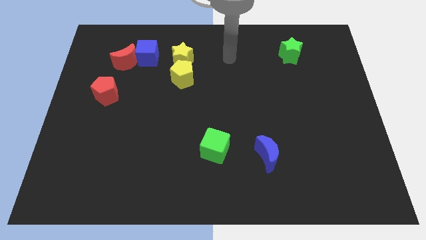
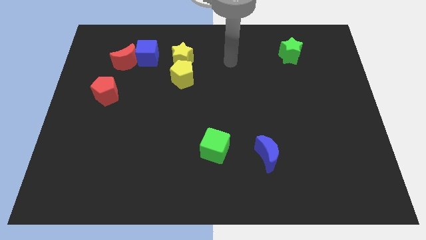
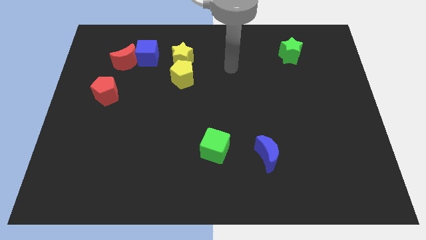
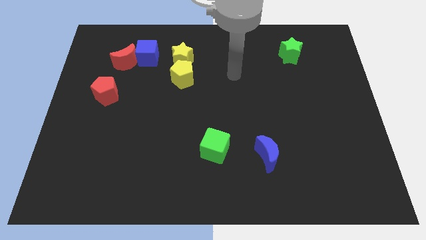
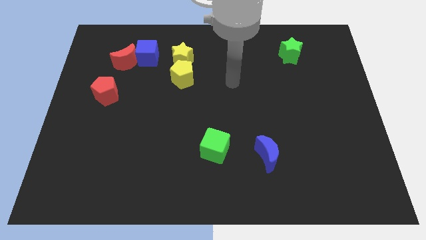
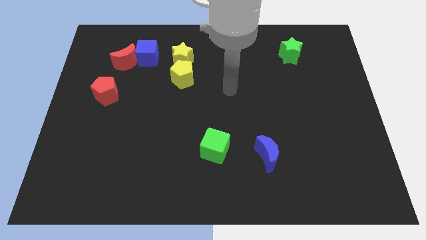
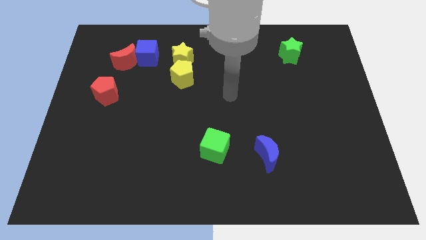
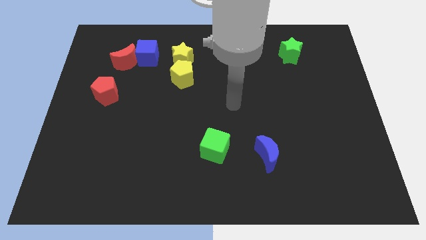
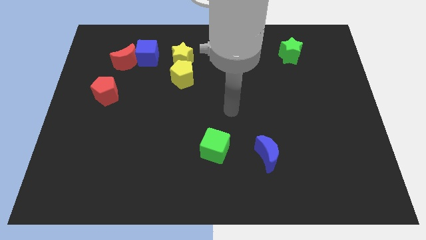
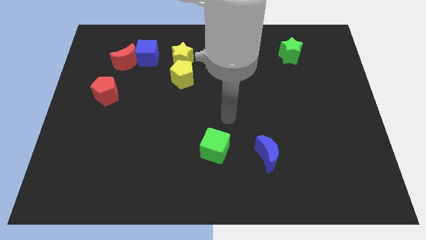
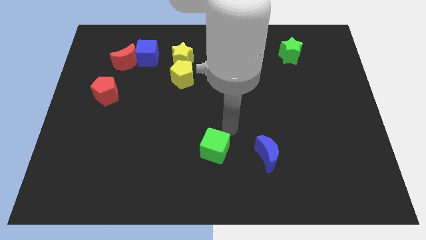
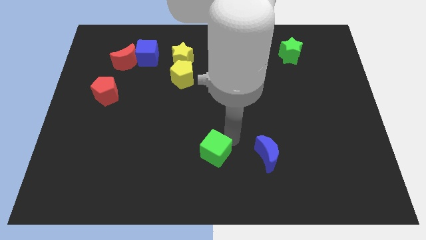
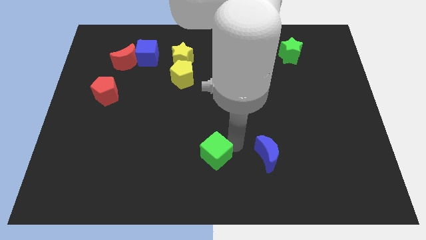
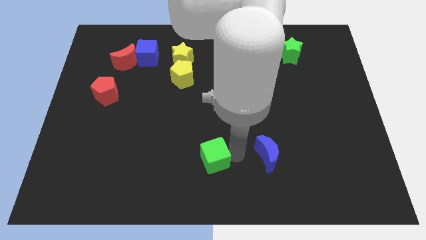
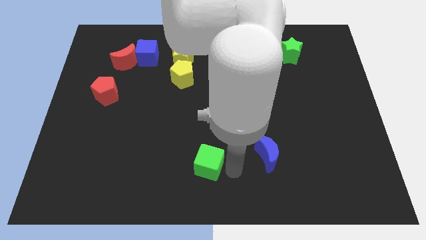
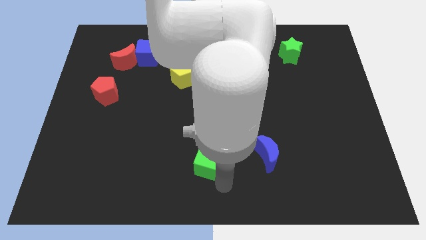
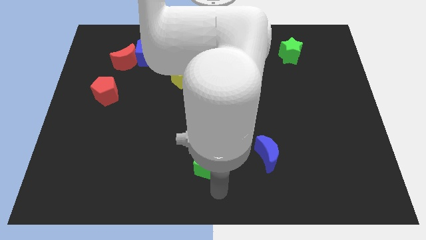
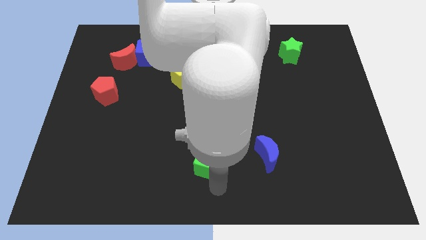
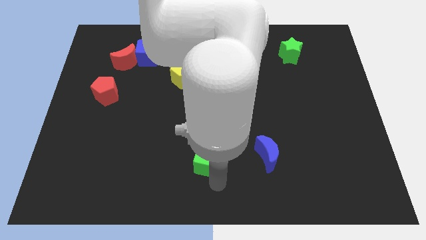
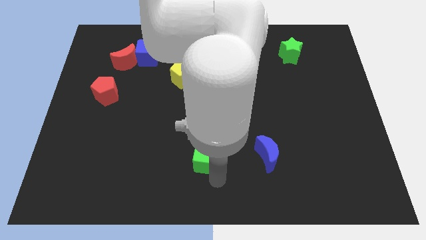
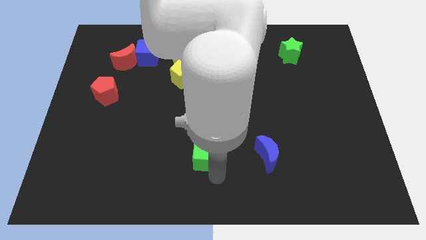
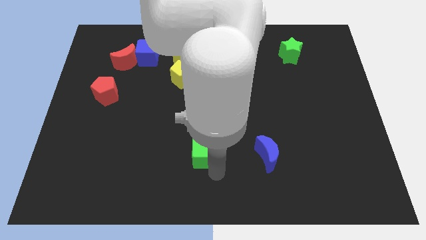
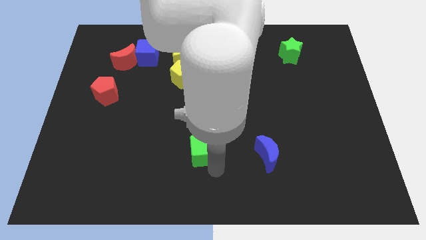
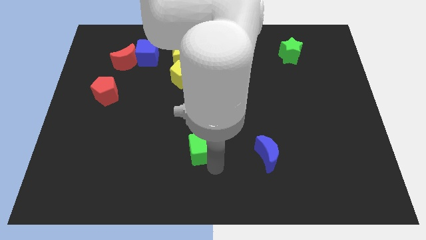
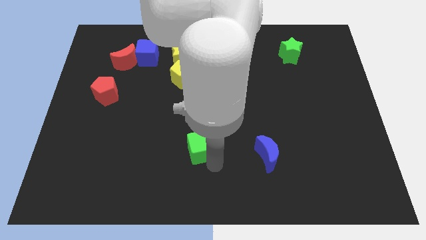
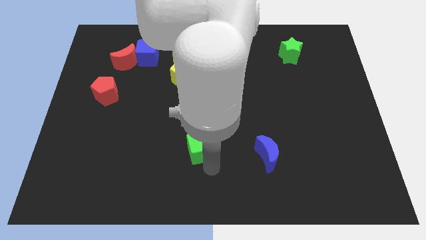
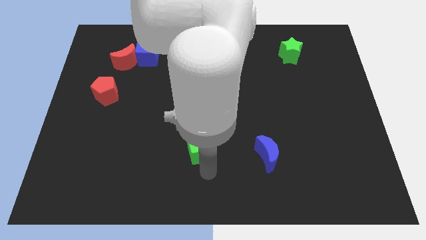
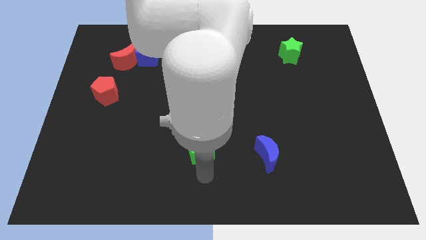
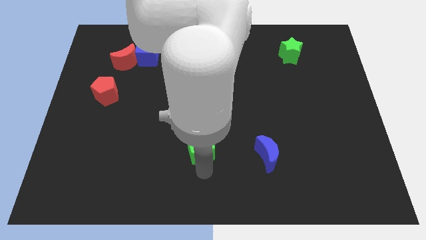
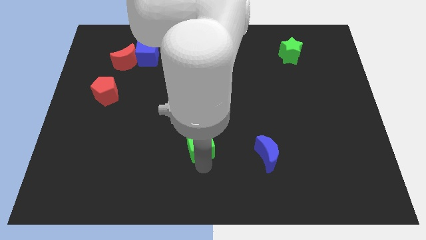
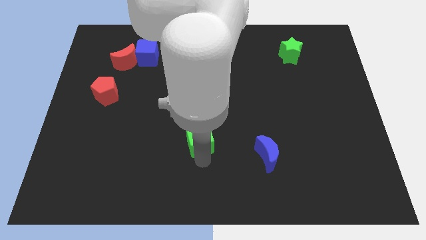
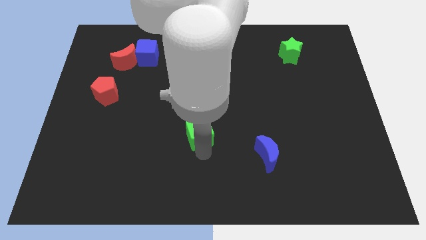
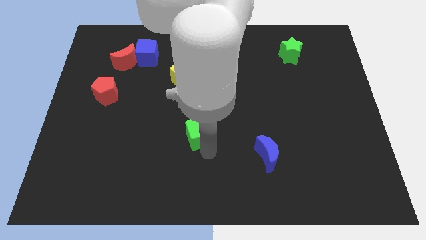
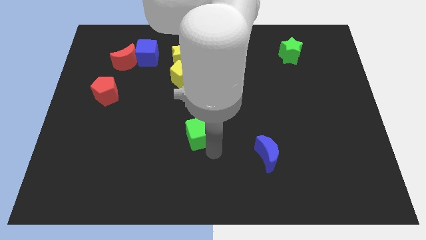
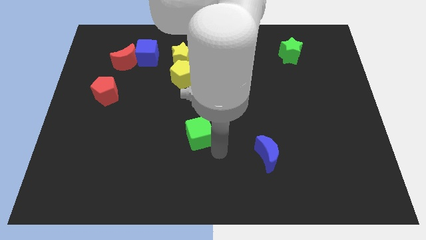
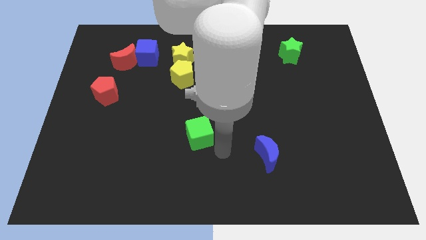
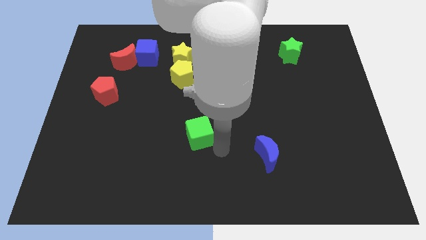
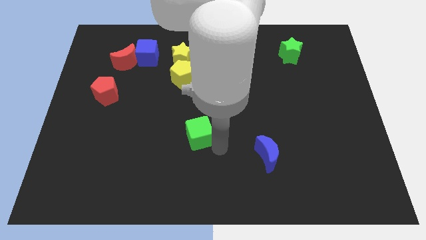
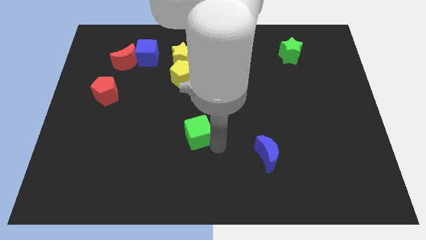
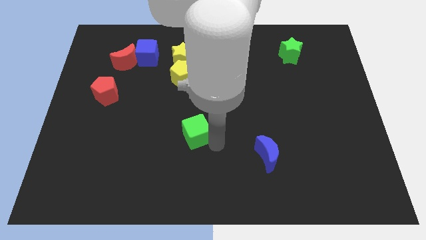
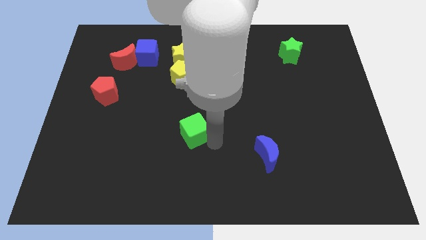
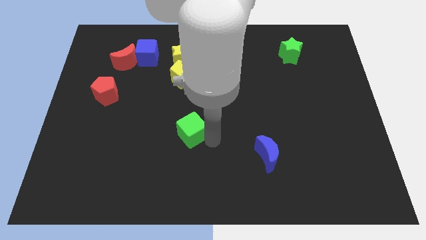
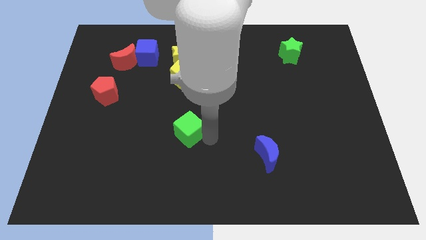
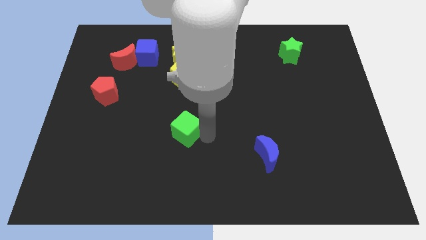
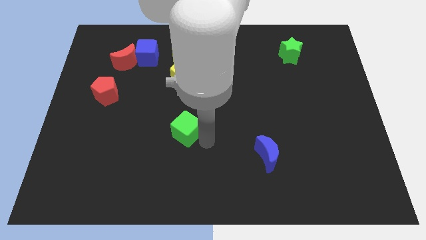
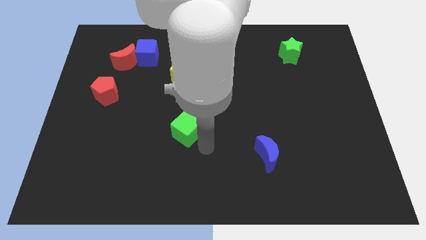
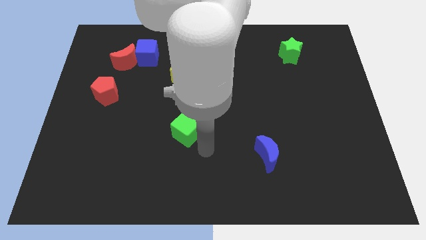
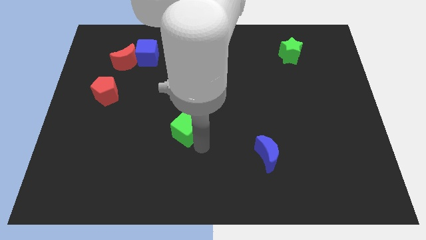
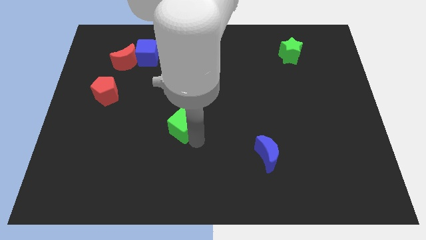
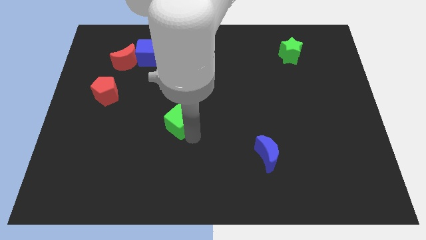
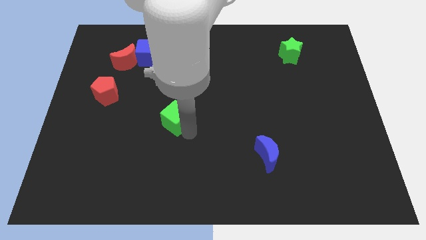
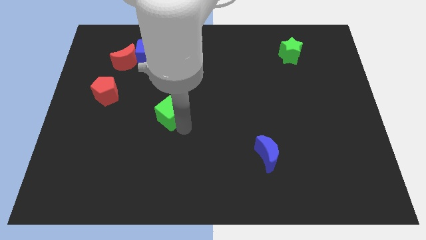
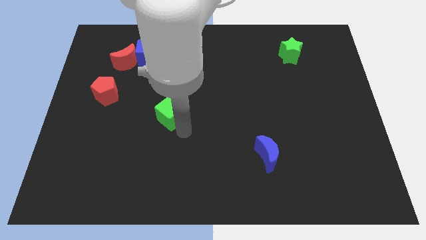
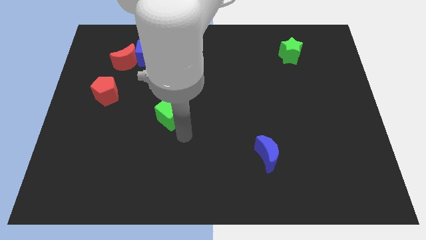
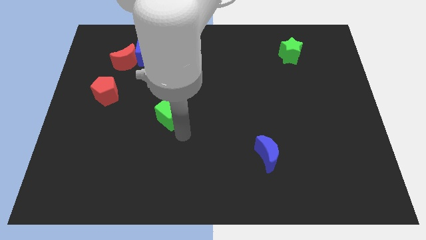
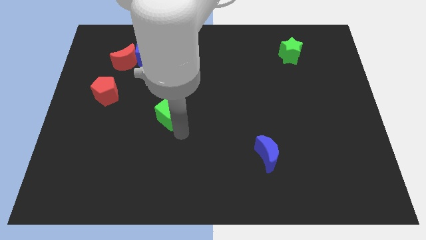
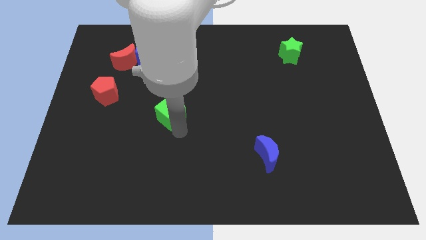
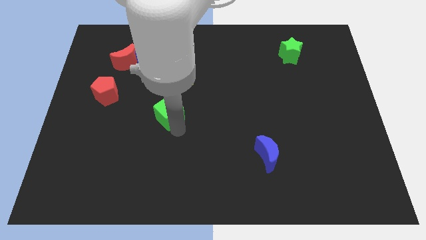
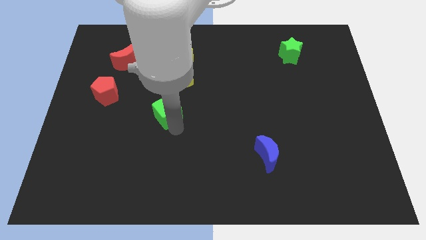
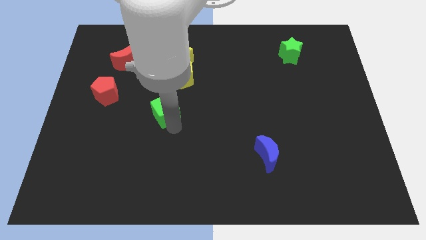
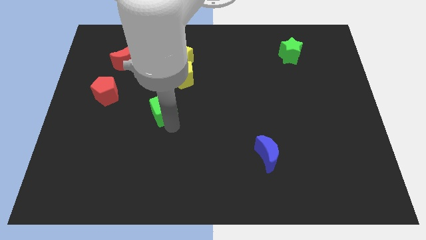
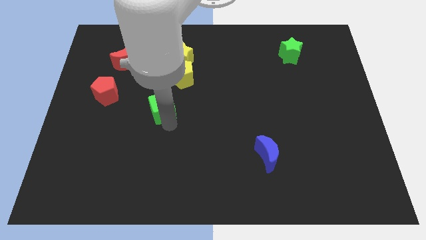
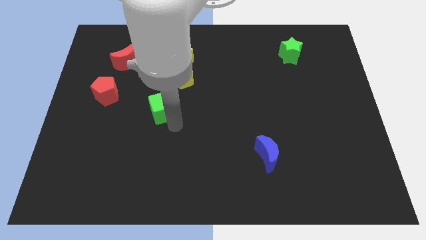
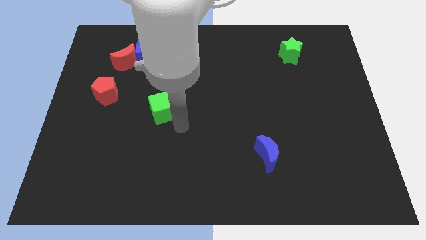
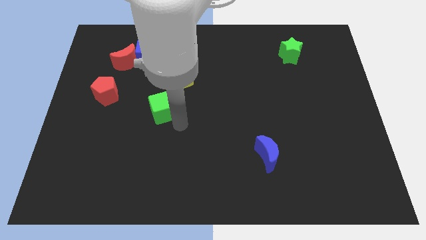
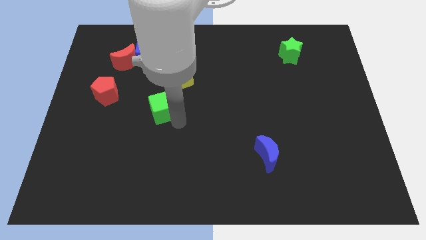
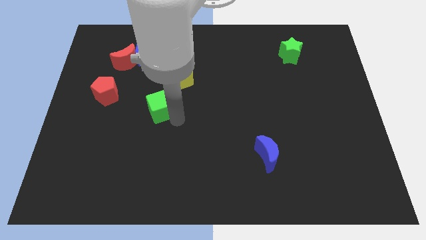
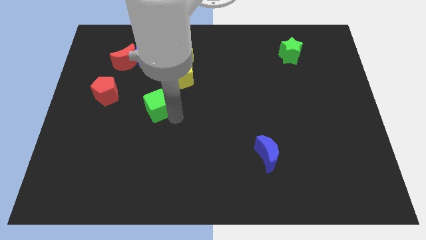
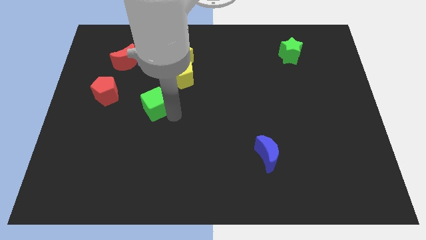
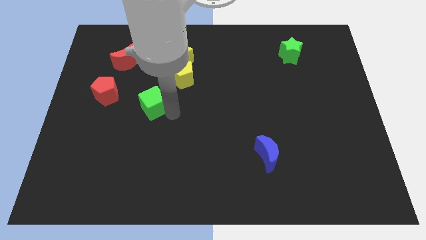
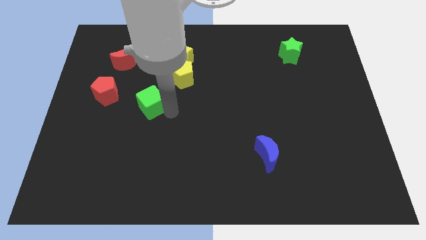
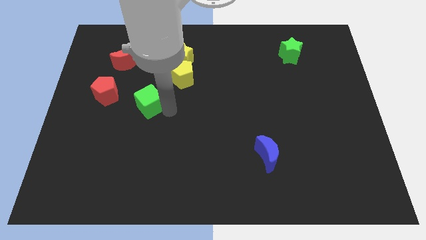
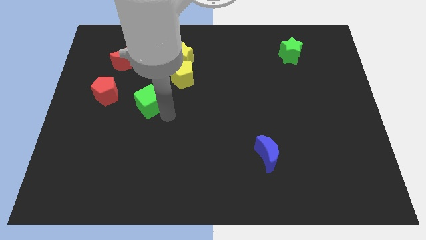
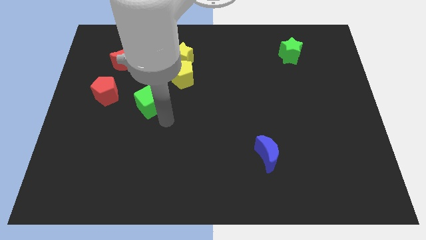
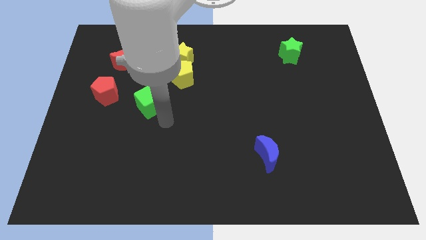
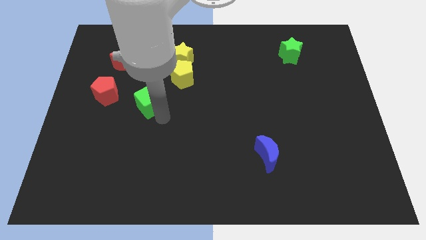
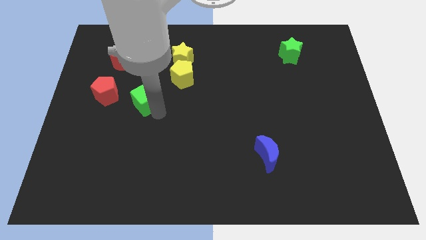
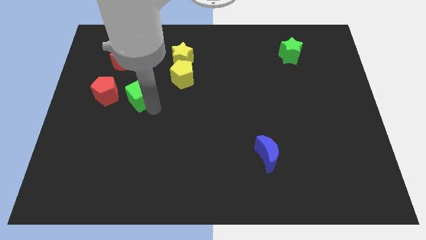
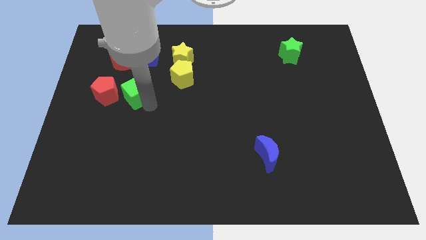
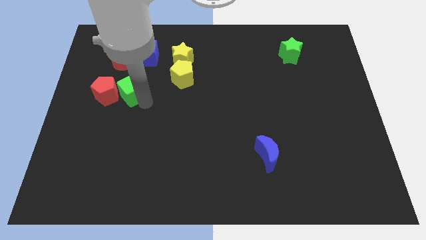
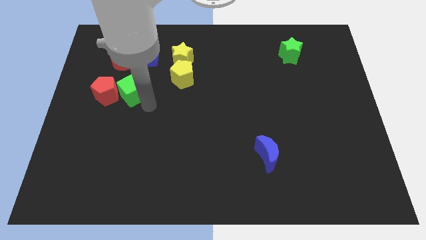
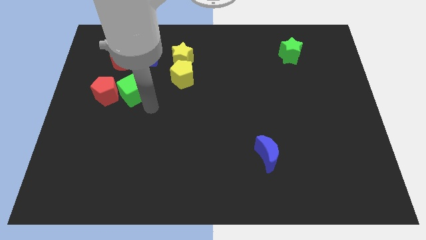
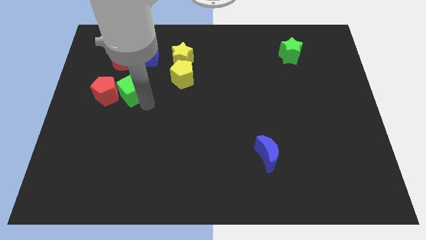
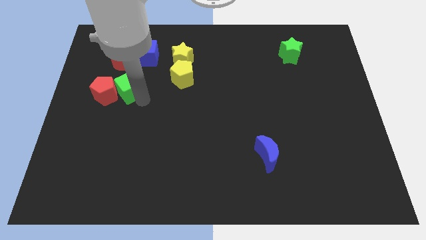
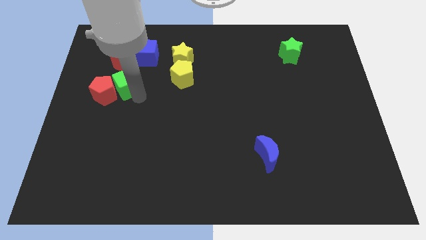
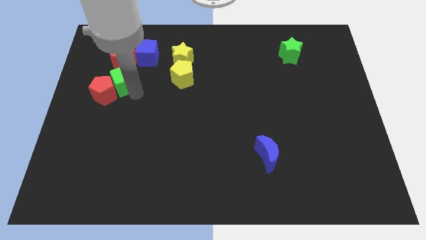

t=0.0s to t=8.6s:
push the green cube above the red pentagon
